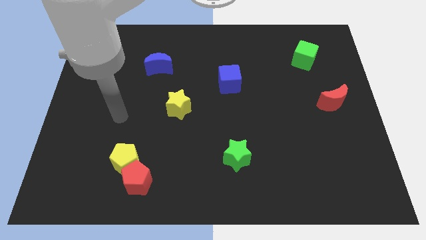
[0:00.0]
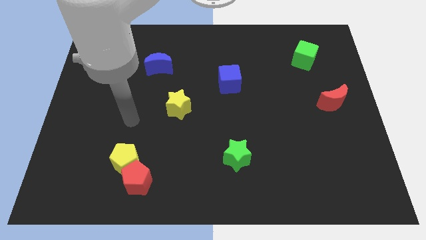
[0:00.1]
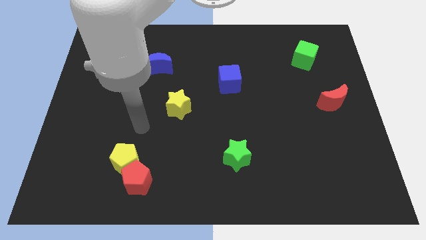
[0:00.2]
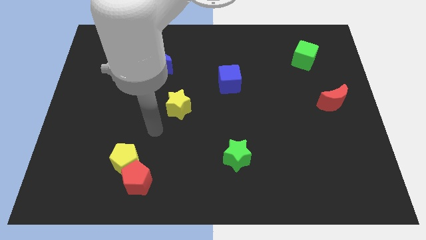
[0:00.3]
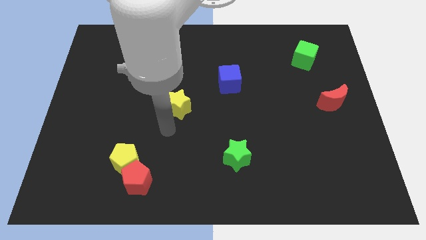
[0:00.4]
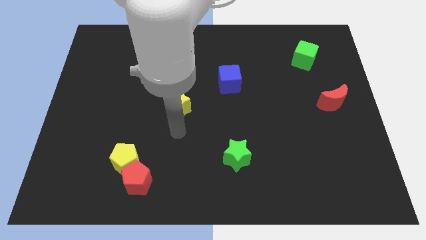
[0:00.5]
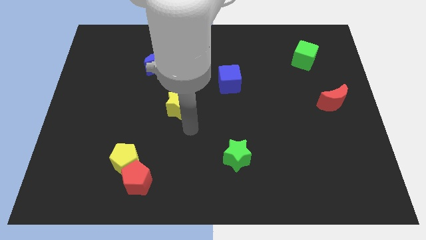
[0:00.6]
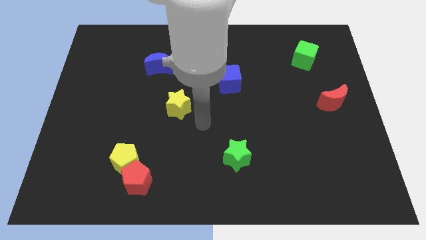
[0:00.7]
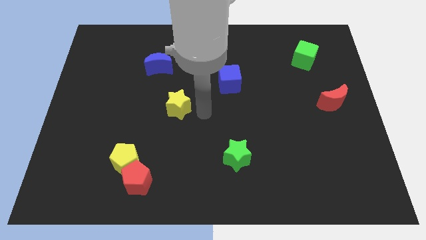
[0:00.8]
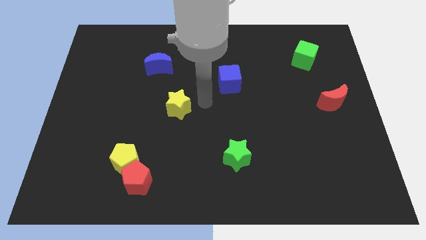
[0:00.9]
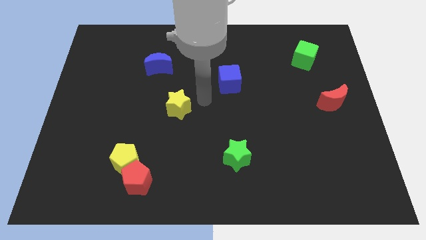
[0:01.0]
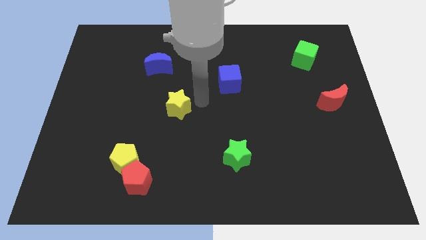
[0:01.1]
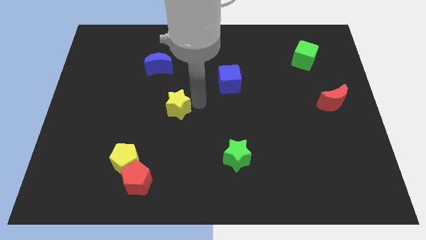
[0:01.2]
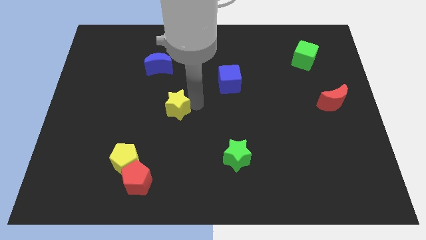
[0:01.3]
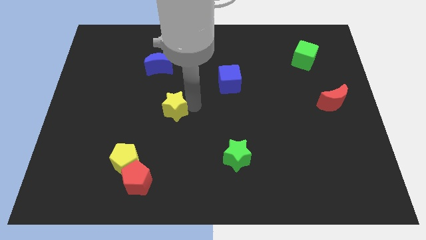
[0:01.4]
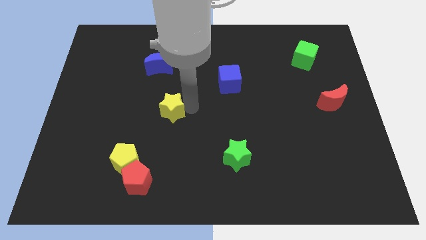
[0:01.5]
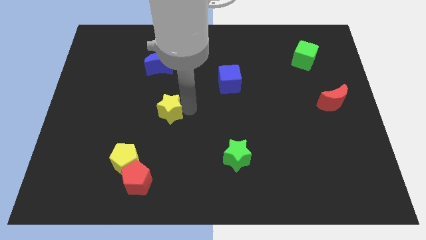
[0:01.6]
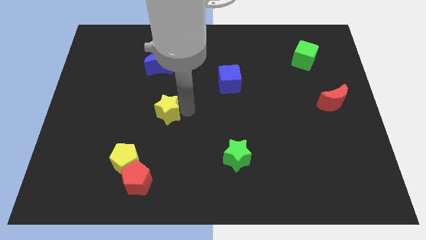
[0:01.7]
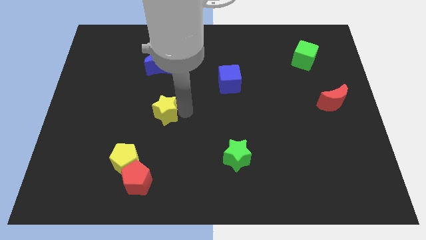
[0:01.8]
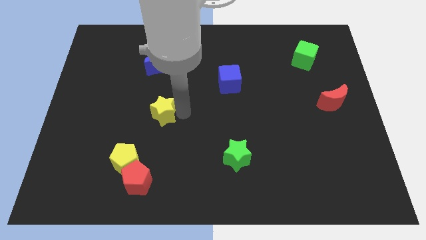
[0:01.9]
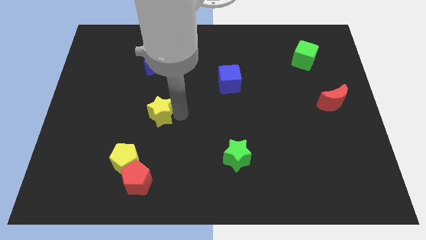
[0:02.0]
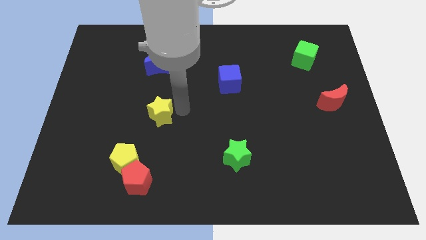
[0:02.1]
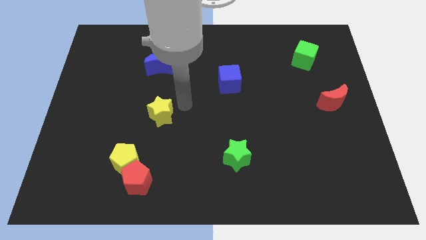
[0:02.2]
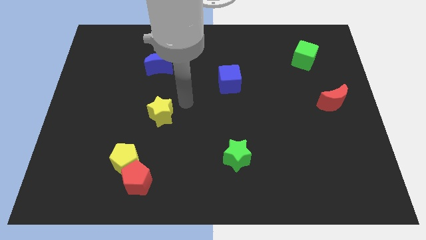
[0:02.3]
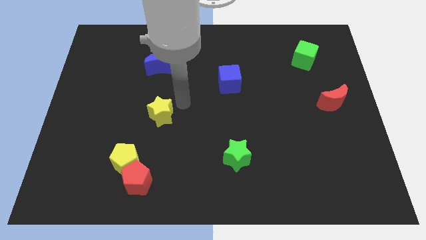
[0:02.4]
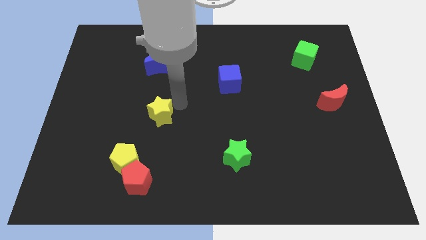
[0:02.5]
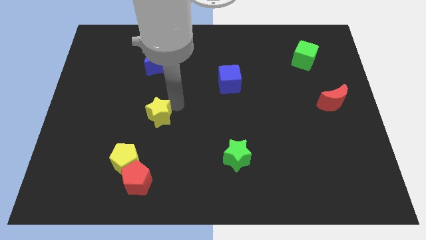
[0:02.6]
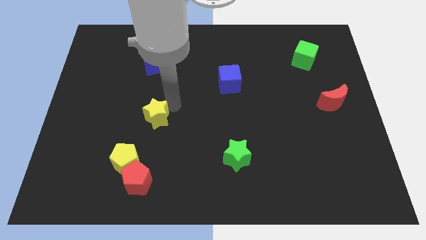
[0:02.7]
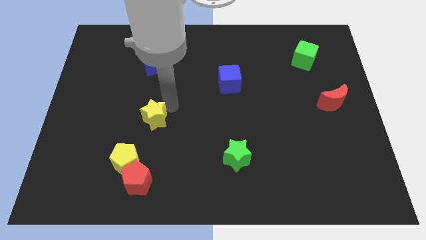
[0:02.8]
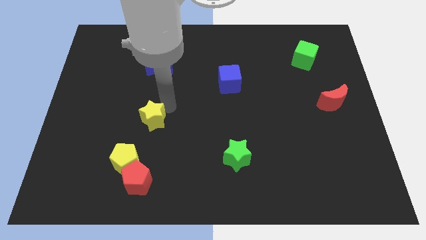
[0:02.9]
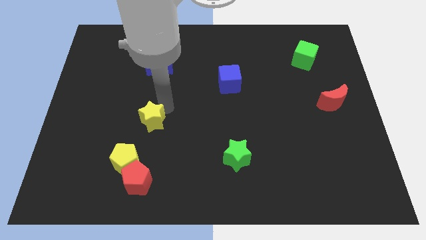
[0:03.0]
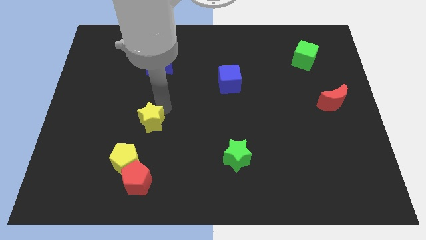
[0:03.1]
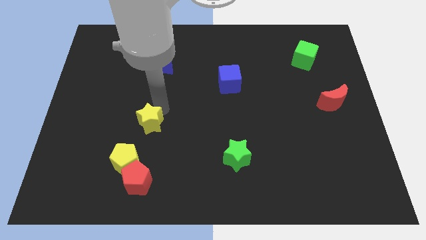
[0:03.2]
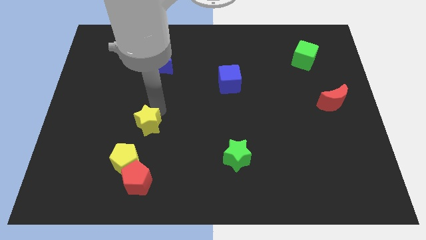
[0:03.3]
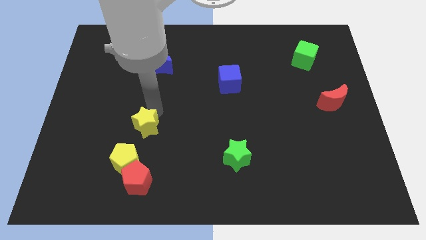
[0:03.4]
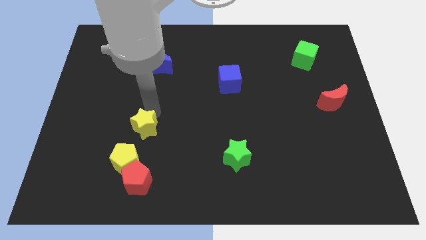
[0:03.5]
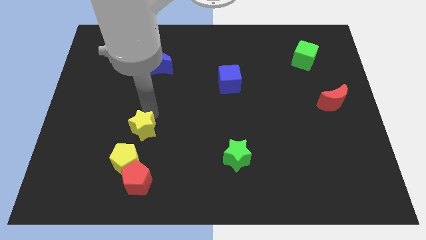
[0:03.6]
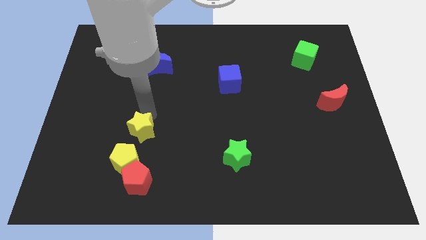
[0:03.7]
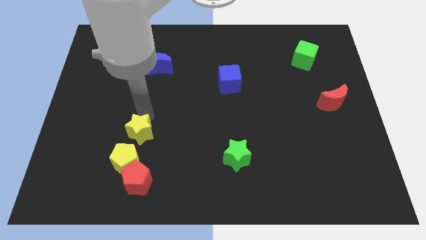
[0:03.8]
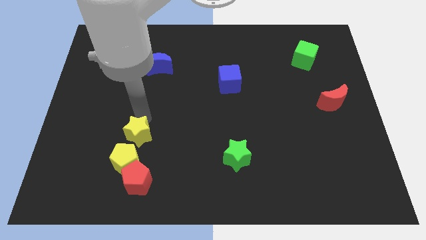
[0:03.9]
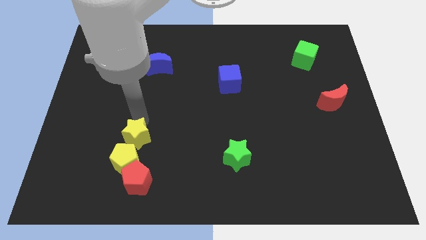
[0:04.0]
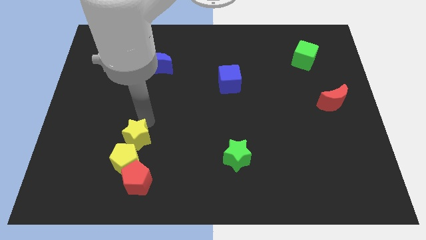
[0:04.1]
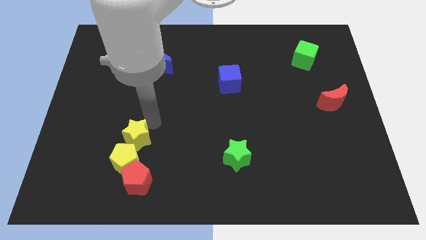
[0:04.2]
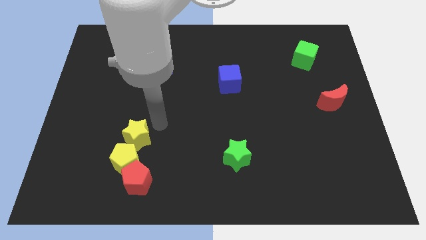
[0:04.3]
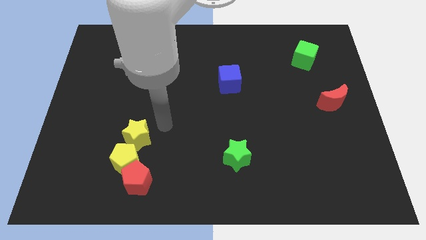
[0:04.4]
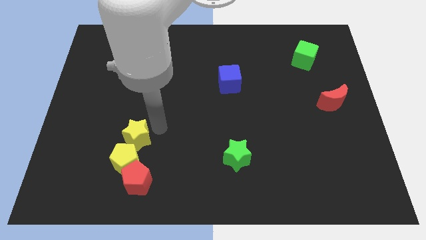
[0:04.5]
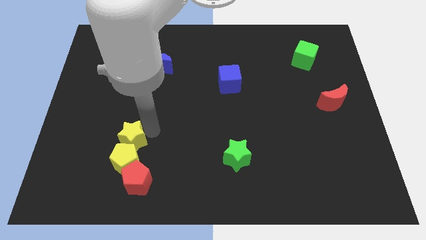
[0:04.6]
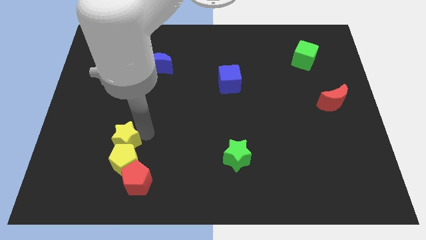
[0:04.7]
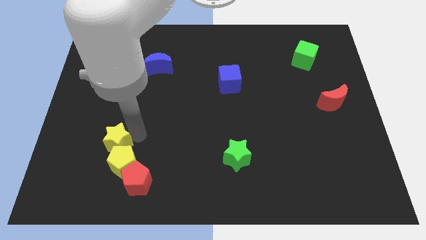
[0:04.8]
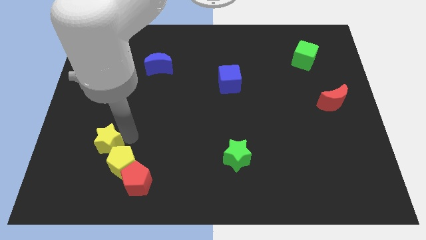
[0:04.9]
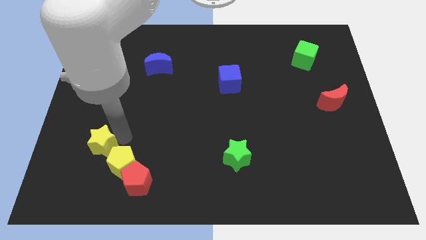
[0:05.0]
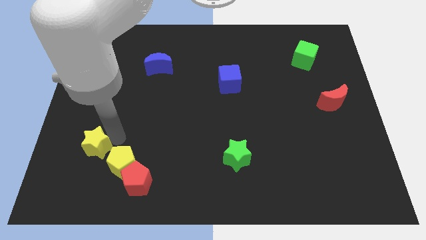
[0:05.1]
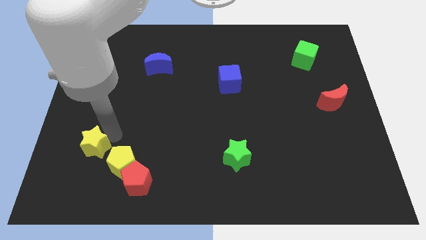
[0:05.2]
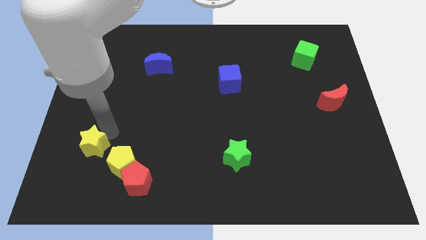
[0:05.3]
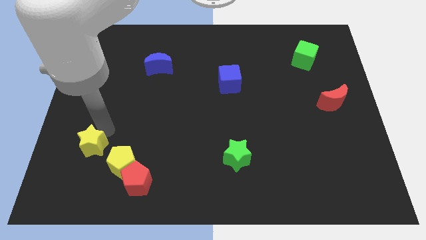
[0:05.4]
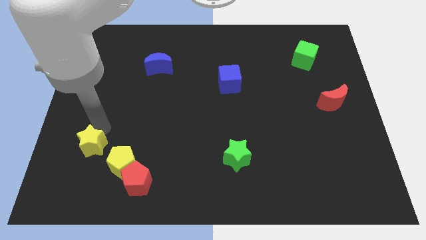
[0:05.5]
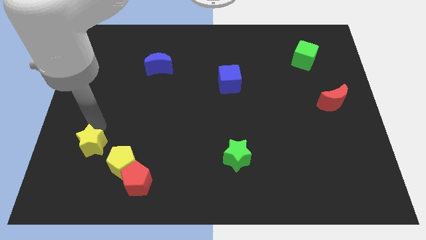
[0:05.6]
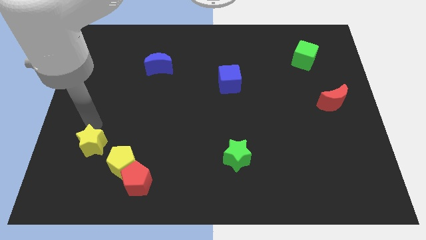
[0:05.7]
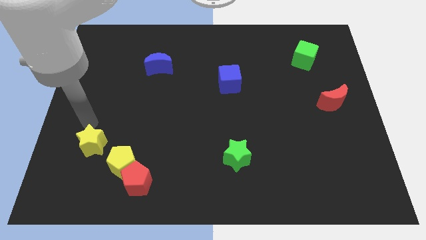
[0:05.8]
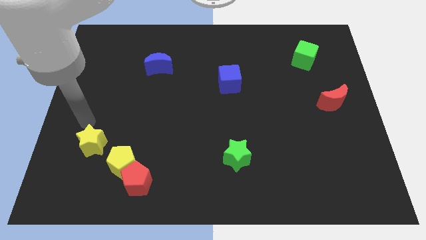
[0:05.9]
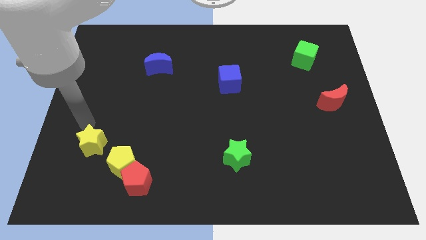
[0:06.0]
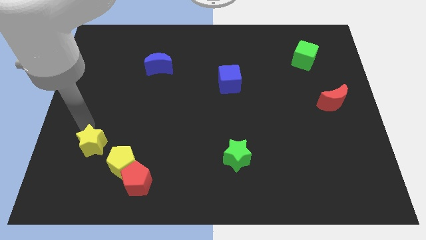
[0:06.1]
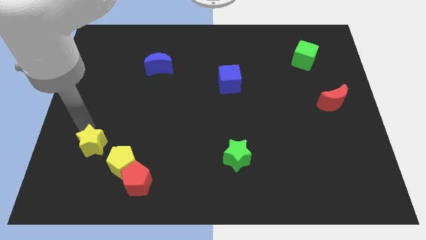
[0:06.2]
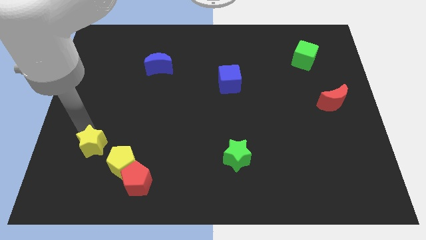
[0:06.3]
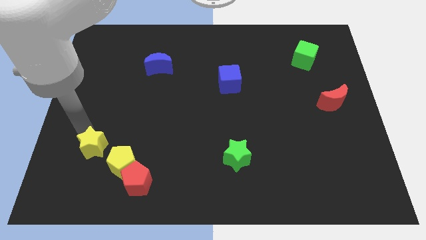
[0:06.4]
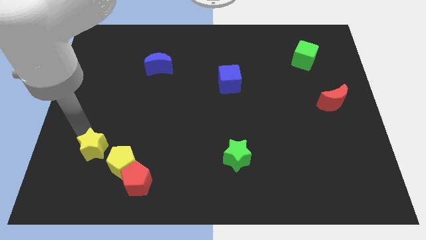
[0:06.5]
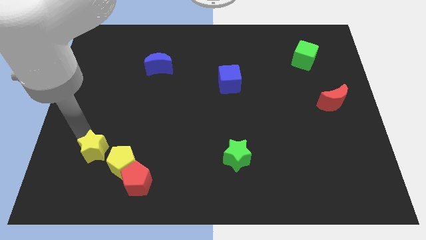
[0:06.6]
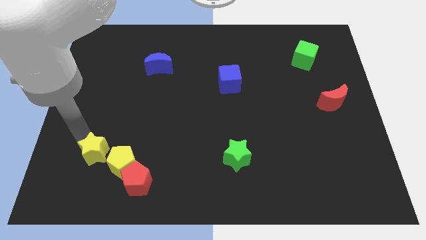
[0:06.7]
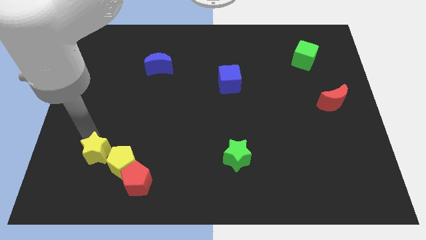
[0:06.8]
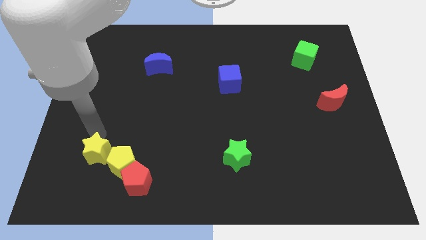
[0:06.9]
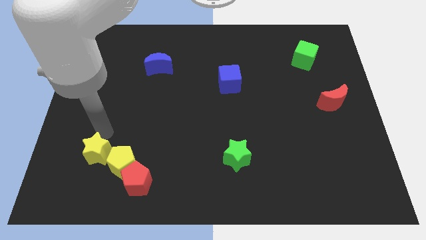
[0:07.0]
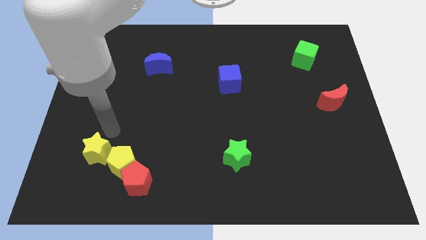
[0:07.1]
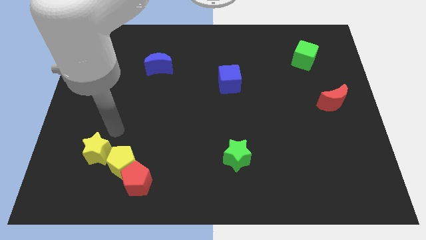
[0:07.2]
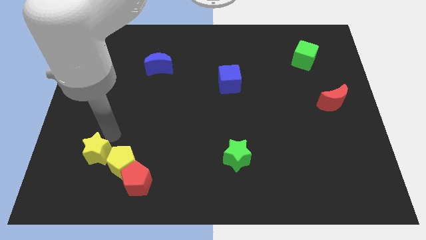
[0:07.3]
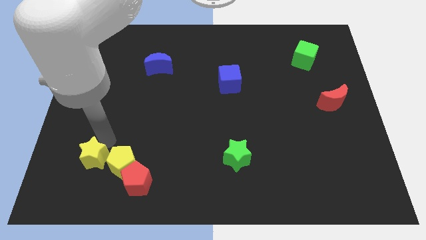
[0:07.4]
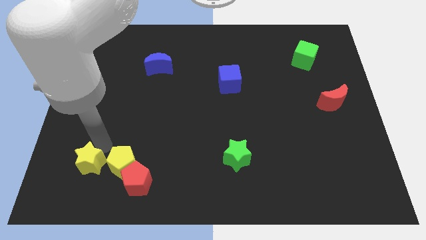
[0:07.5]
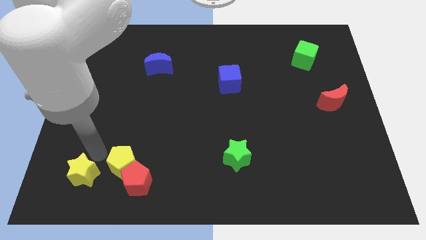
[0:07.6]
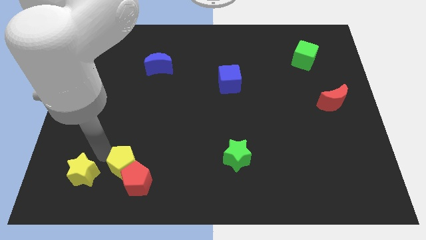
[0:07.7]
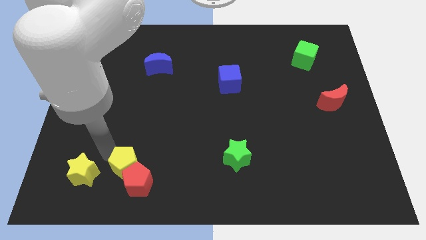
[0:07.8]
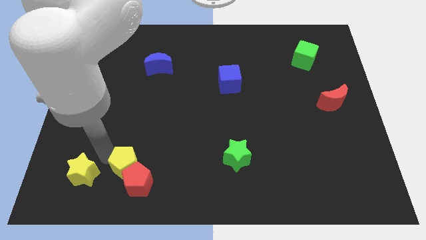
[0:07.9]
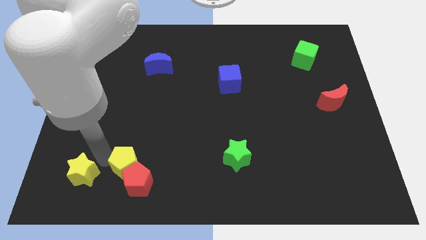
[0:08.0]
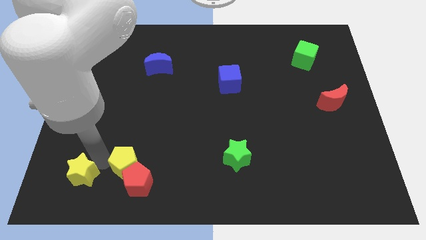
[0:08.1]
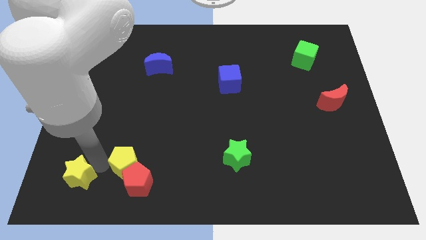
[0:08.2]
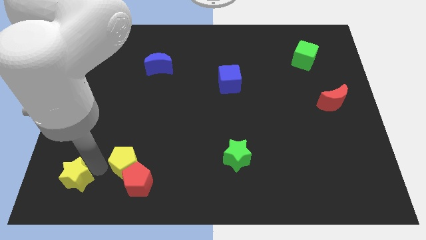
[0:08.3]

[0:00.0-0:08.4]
put the yellow star to the lower left corner
